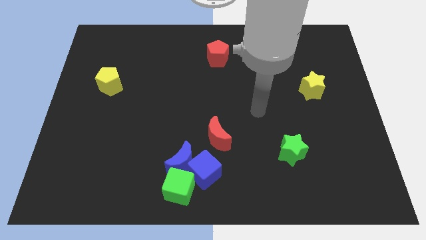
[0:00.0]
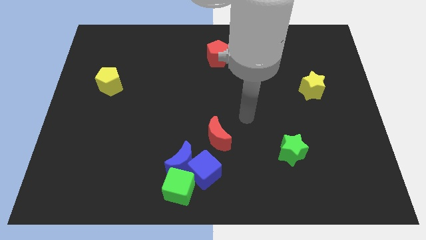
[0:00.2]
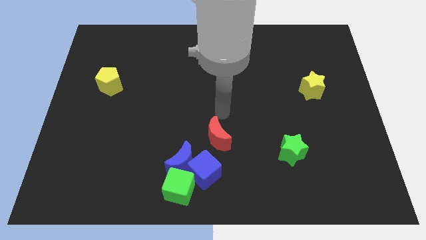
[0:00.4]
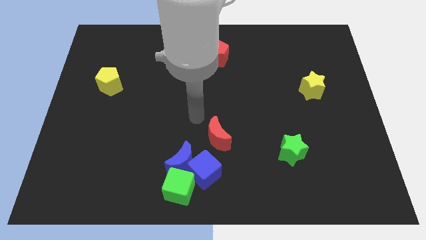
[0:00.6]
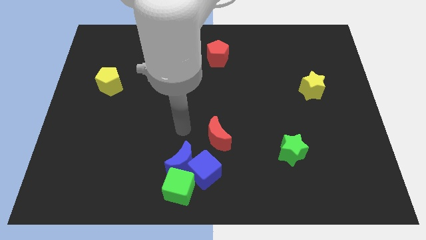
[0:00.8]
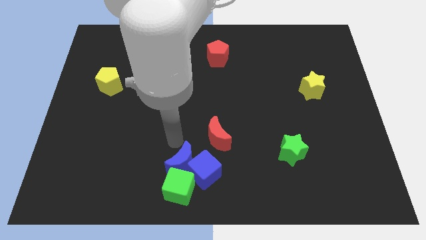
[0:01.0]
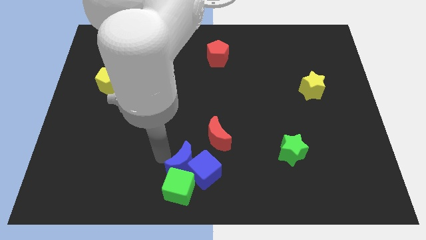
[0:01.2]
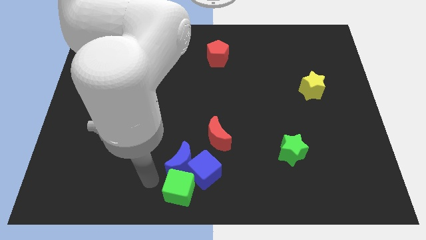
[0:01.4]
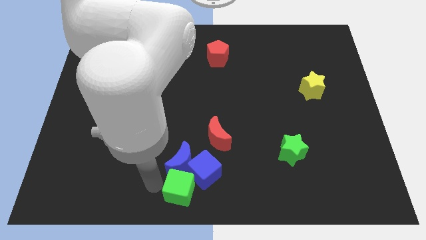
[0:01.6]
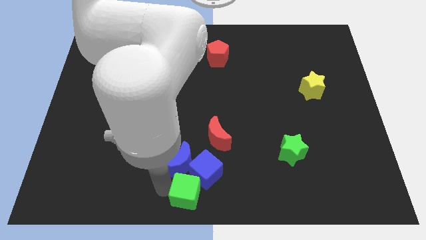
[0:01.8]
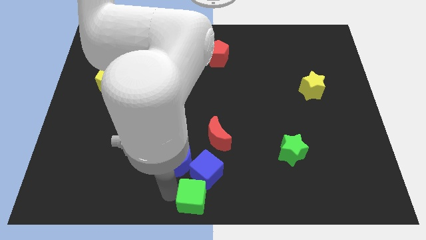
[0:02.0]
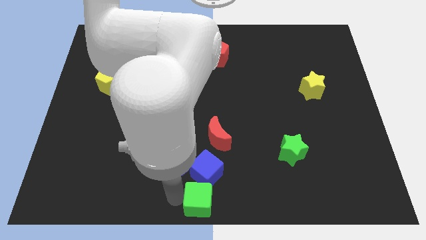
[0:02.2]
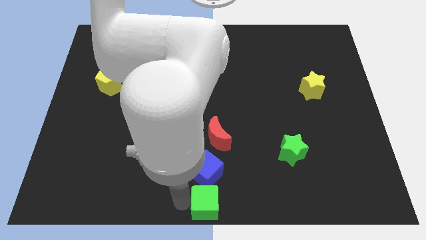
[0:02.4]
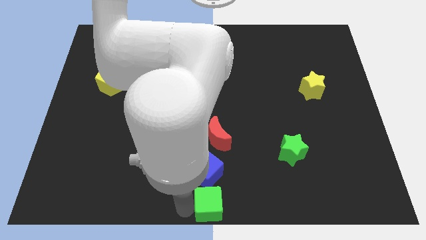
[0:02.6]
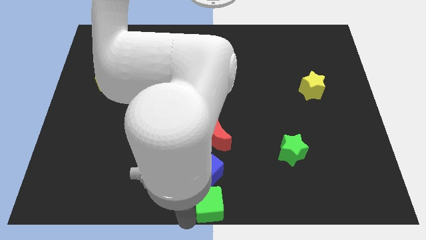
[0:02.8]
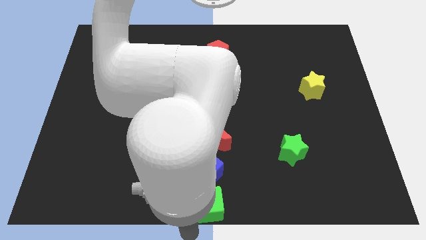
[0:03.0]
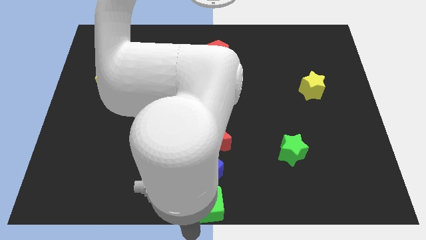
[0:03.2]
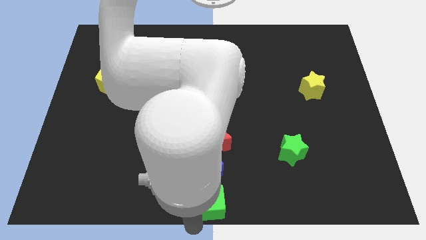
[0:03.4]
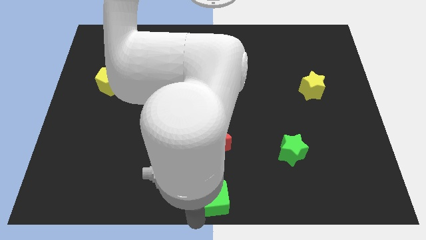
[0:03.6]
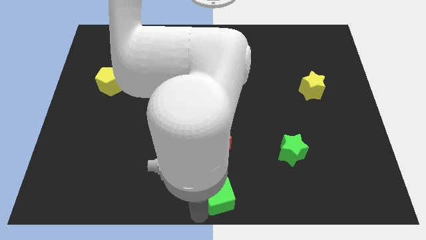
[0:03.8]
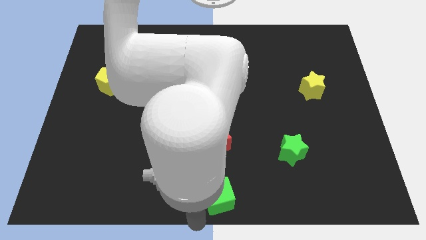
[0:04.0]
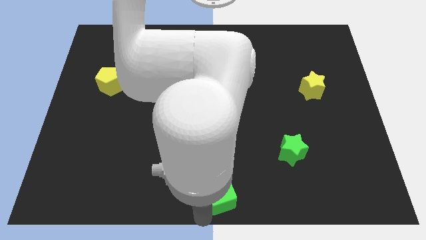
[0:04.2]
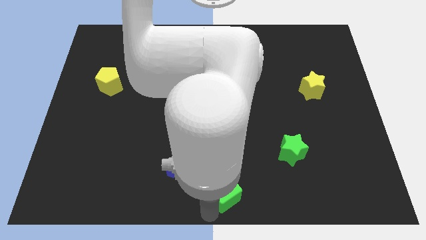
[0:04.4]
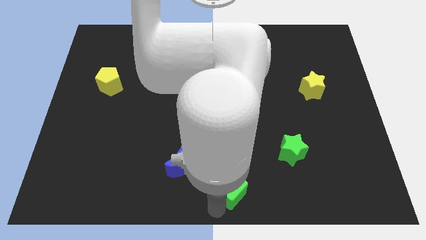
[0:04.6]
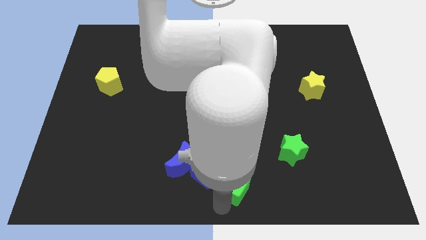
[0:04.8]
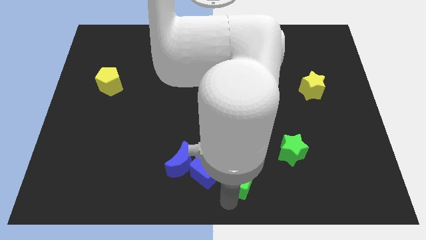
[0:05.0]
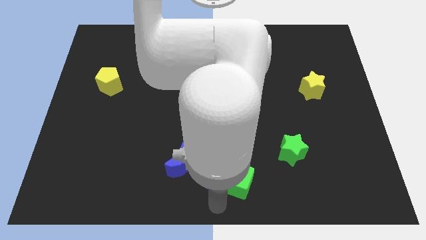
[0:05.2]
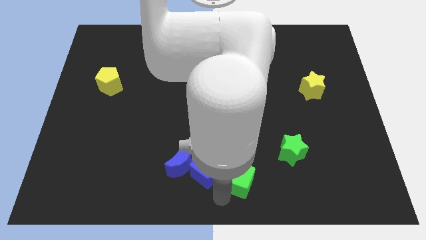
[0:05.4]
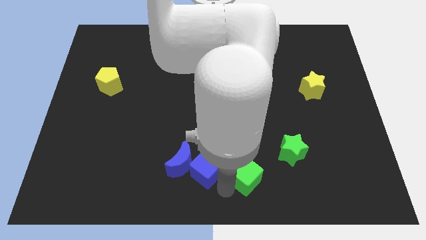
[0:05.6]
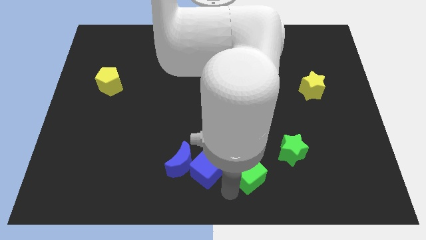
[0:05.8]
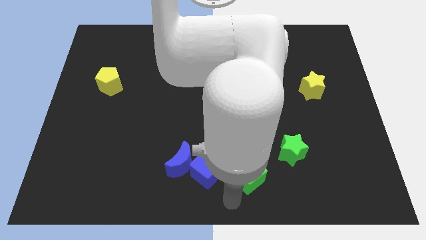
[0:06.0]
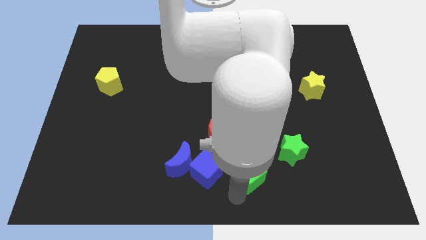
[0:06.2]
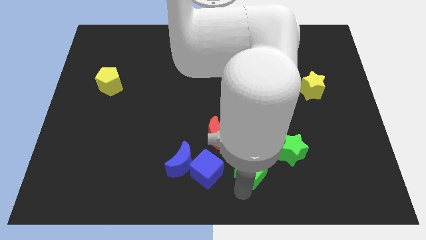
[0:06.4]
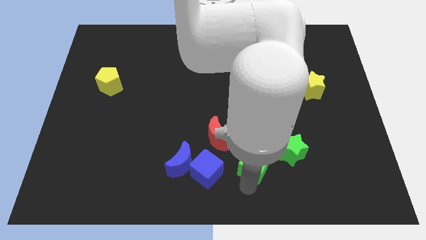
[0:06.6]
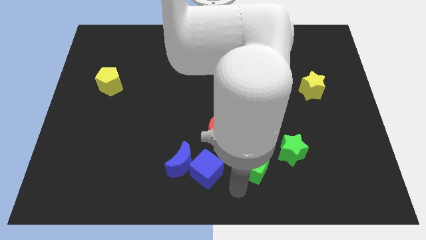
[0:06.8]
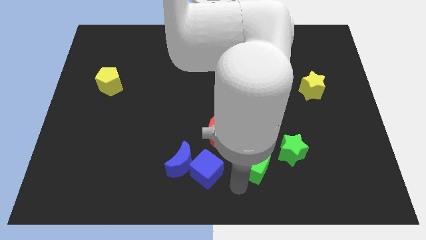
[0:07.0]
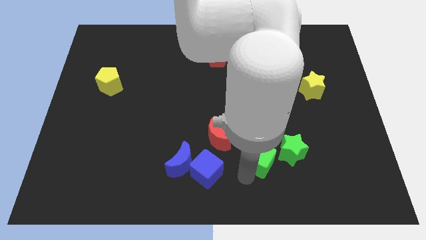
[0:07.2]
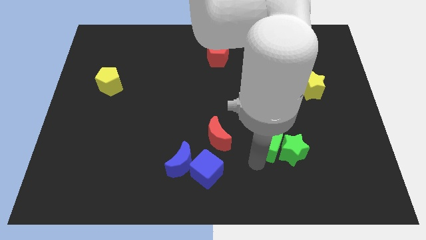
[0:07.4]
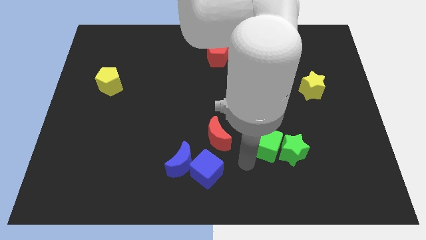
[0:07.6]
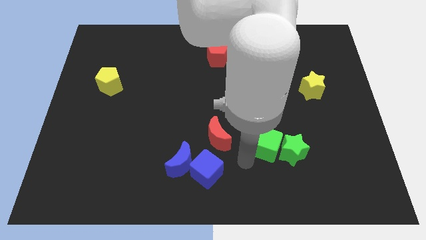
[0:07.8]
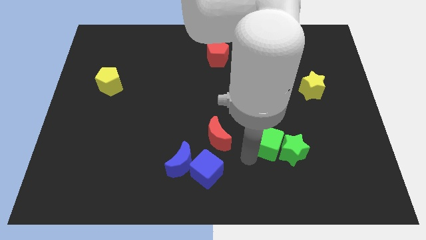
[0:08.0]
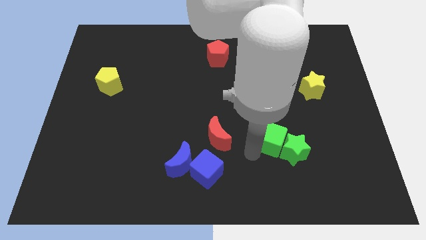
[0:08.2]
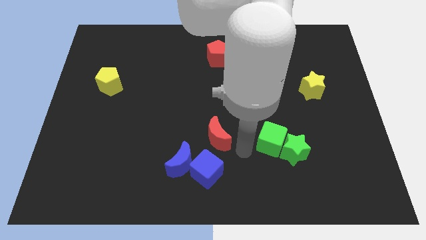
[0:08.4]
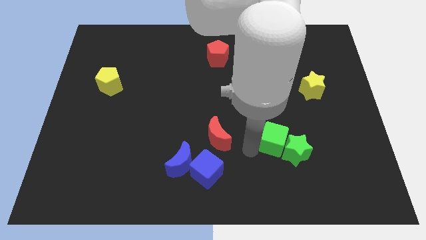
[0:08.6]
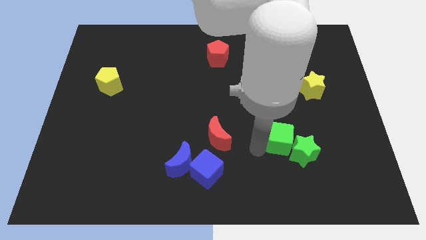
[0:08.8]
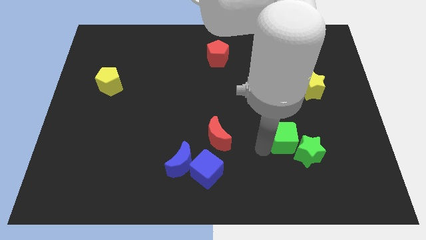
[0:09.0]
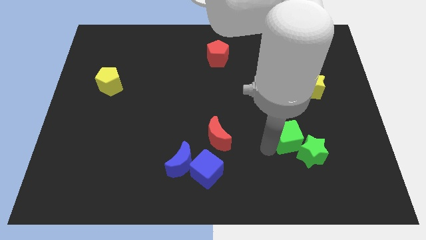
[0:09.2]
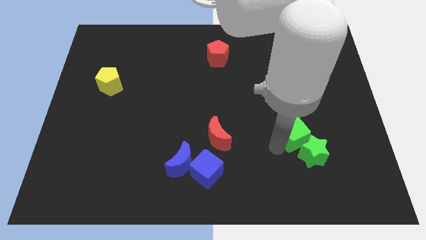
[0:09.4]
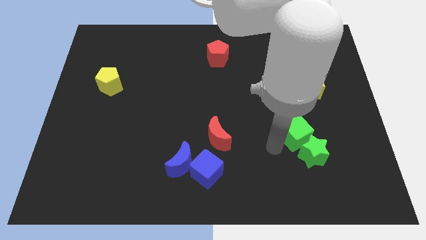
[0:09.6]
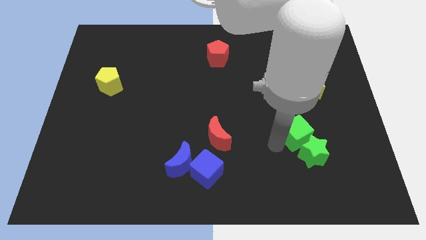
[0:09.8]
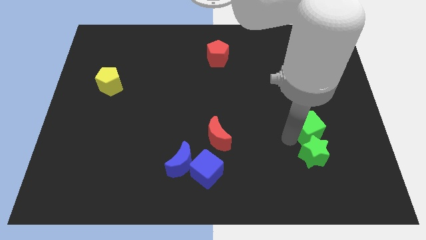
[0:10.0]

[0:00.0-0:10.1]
move the green cube below the yellow star

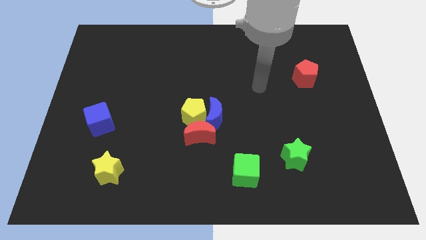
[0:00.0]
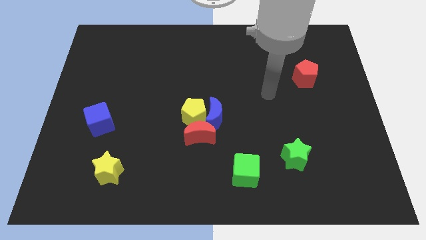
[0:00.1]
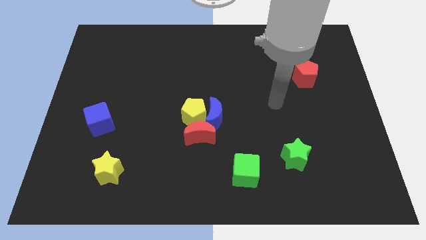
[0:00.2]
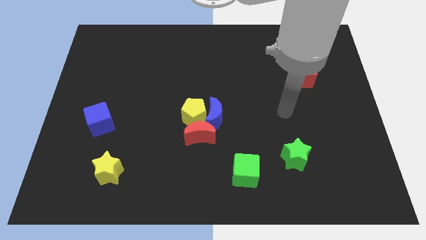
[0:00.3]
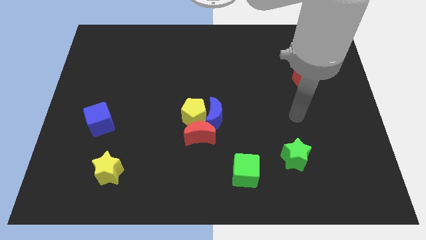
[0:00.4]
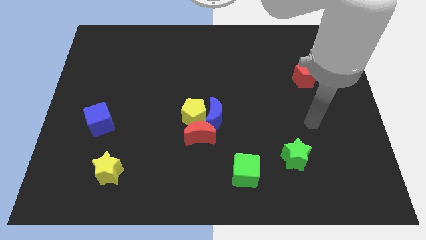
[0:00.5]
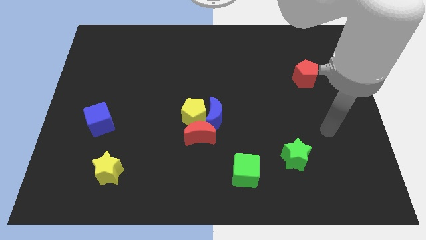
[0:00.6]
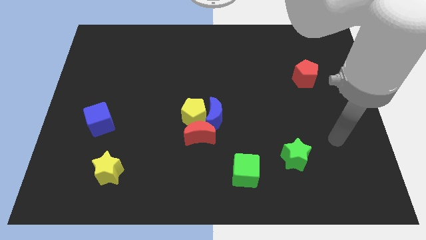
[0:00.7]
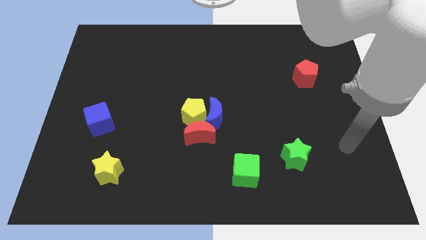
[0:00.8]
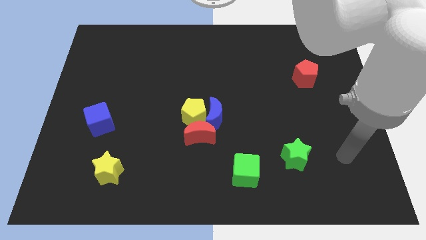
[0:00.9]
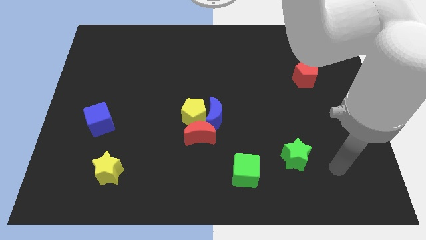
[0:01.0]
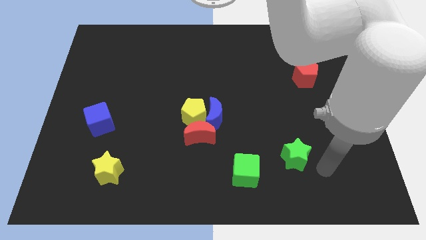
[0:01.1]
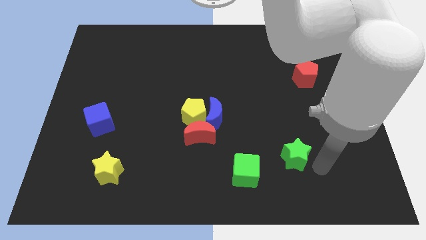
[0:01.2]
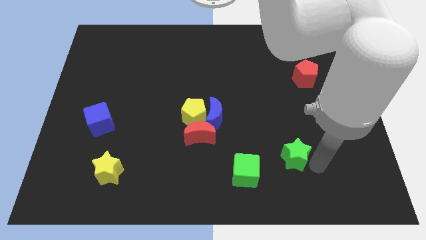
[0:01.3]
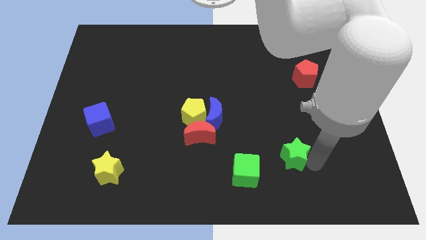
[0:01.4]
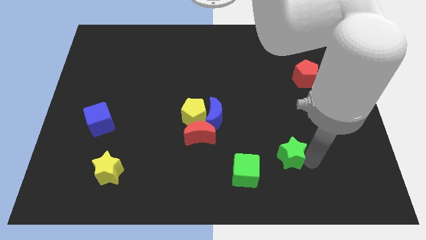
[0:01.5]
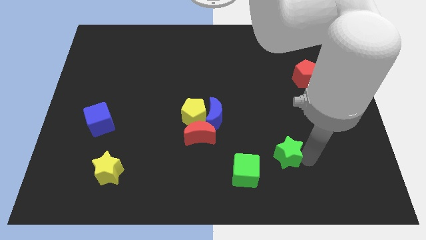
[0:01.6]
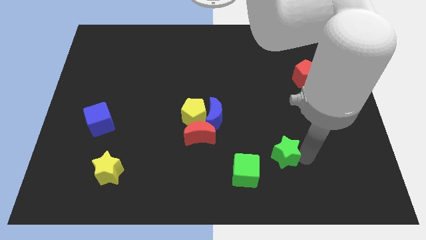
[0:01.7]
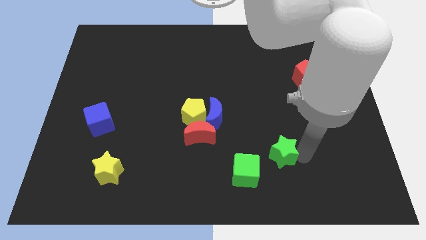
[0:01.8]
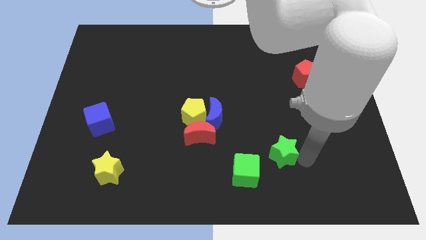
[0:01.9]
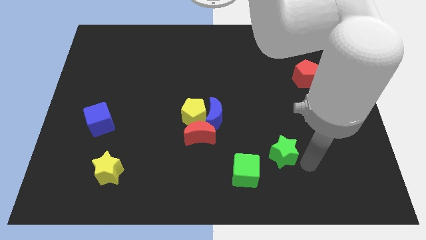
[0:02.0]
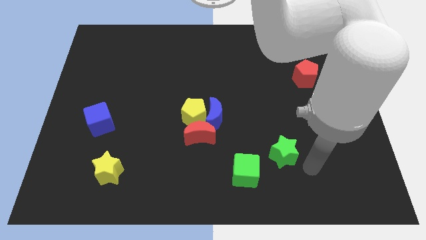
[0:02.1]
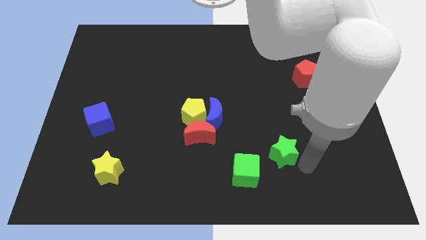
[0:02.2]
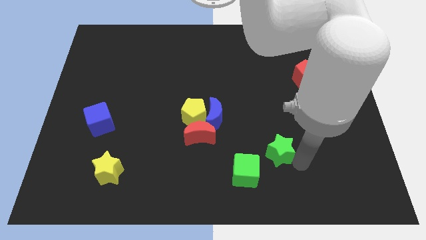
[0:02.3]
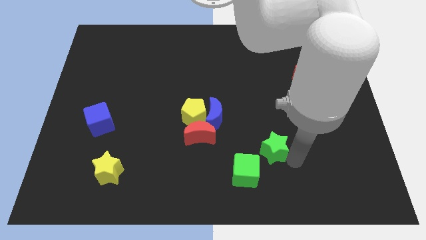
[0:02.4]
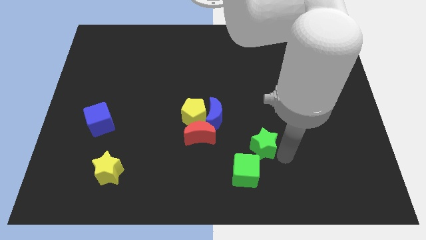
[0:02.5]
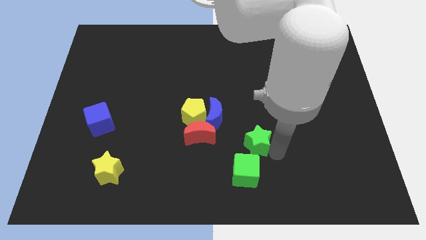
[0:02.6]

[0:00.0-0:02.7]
move the green star diagonally down and to the right of the blue moon
